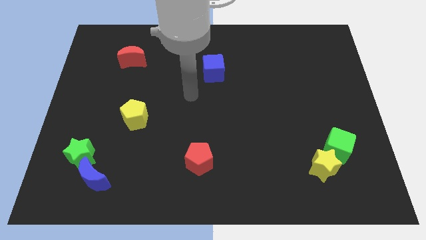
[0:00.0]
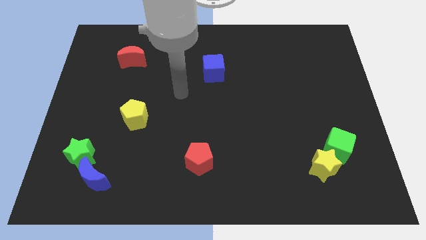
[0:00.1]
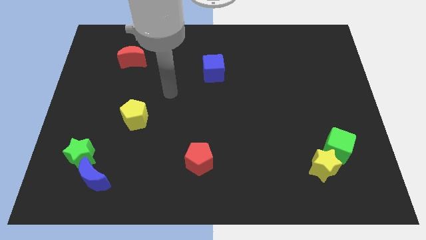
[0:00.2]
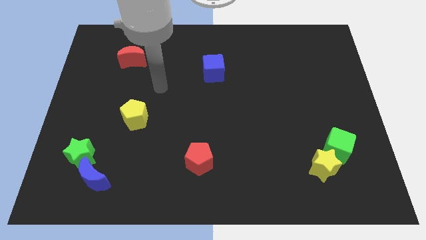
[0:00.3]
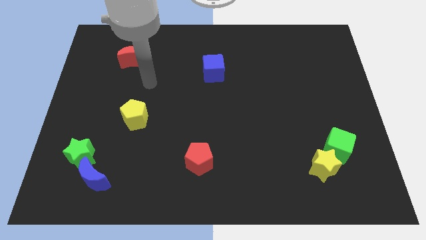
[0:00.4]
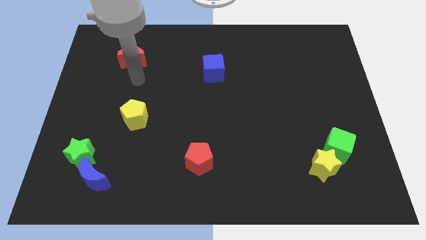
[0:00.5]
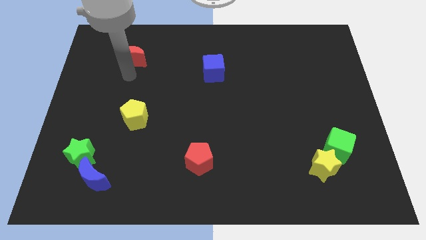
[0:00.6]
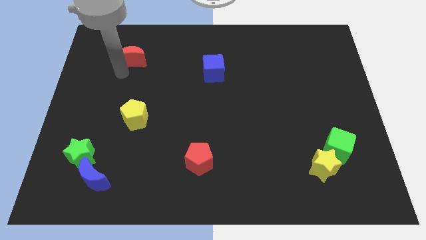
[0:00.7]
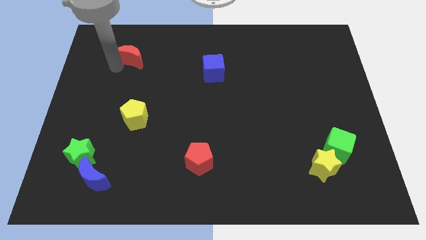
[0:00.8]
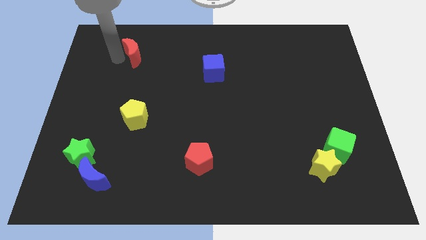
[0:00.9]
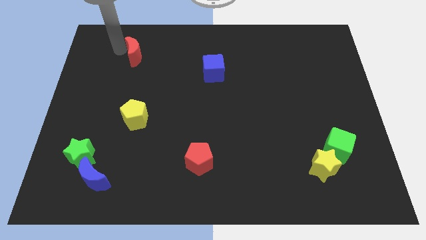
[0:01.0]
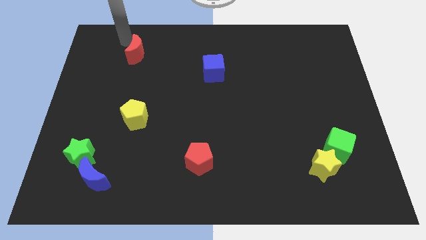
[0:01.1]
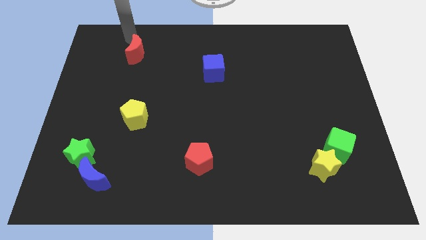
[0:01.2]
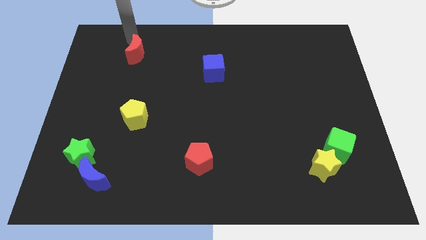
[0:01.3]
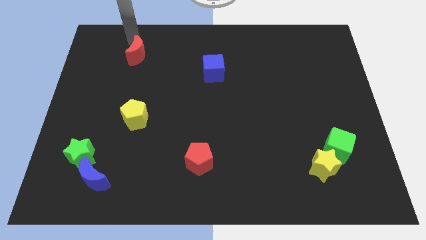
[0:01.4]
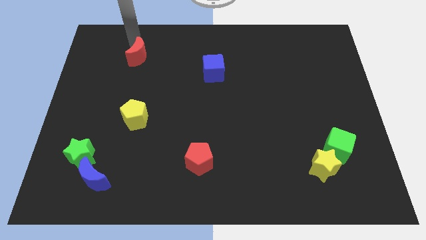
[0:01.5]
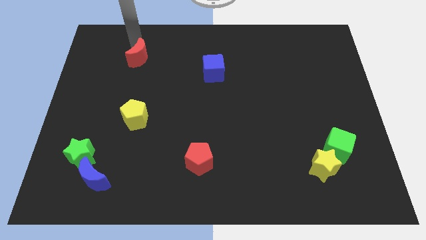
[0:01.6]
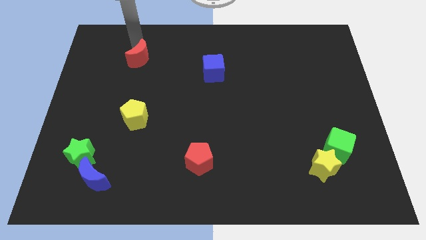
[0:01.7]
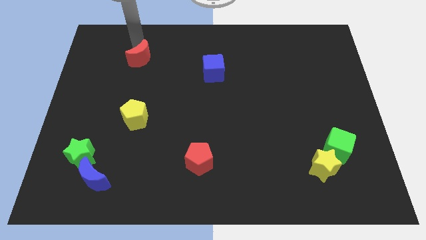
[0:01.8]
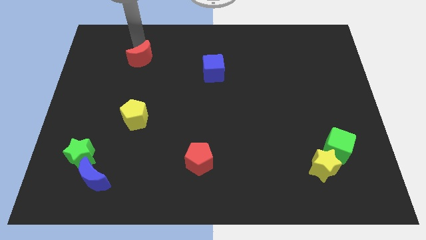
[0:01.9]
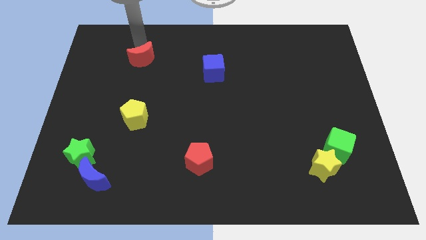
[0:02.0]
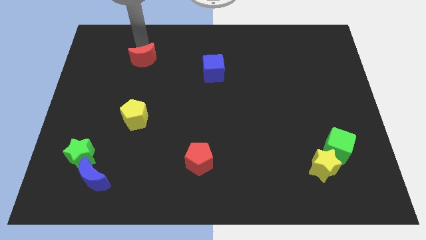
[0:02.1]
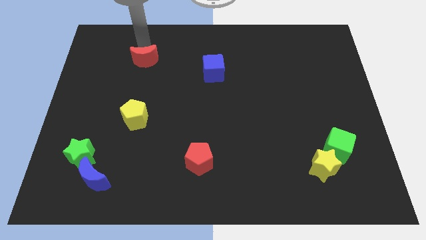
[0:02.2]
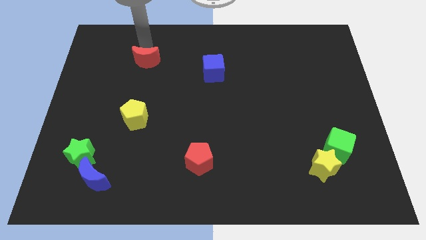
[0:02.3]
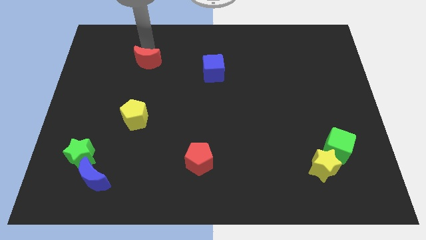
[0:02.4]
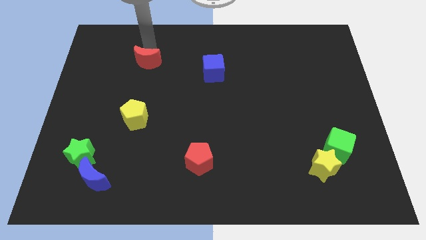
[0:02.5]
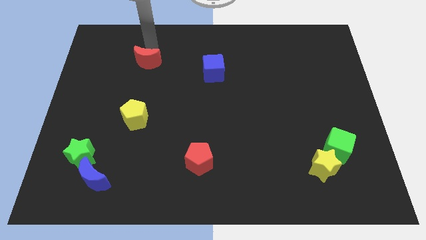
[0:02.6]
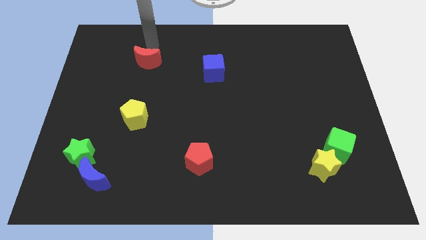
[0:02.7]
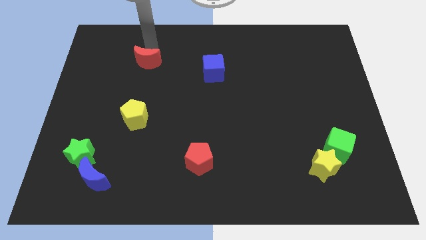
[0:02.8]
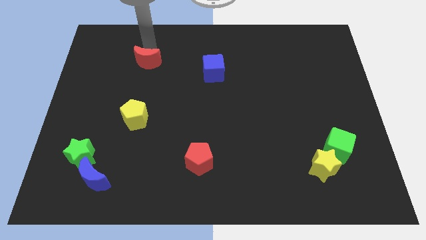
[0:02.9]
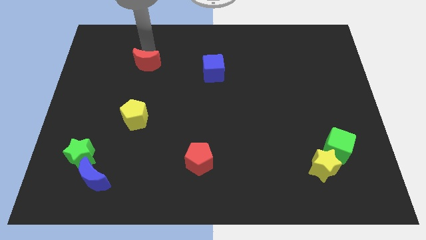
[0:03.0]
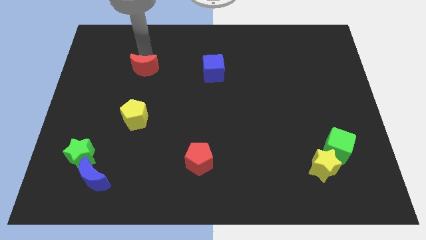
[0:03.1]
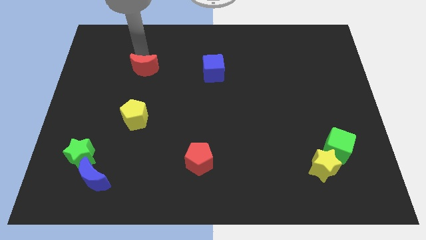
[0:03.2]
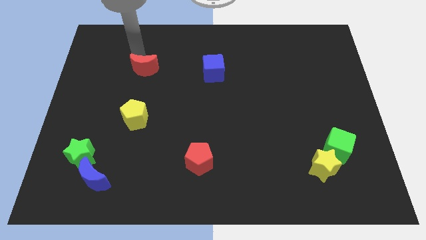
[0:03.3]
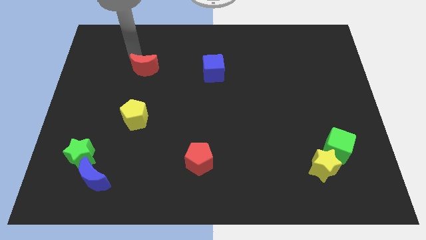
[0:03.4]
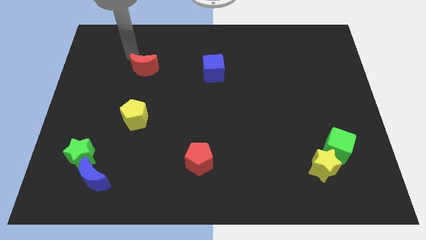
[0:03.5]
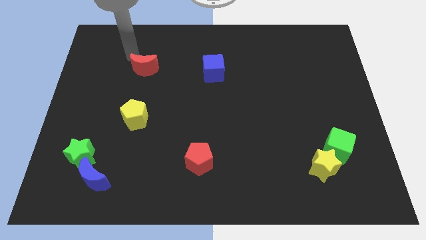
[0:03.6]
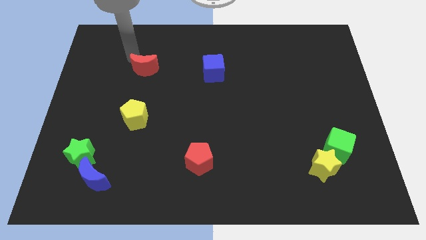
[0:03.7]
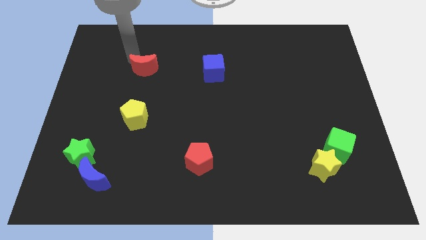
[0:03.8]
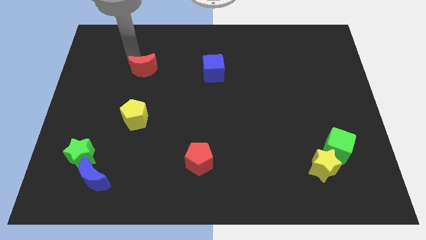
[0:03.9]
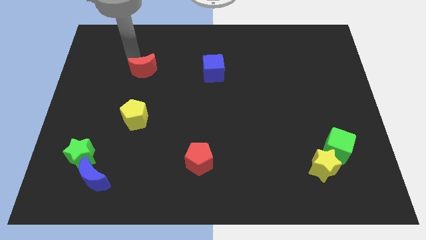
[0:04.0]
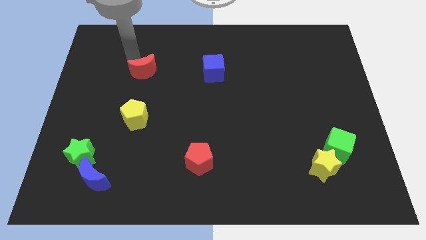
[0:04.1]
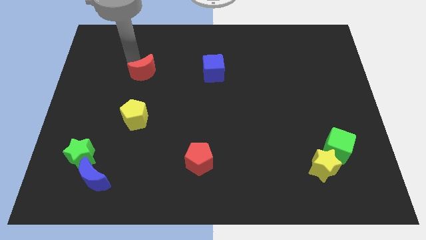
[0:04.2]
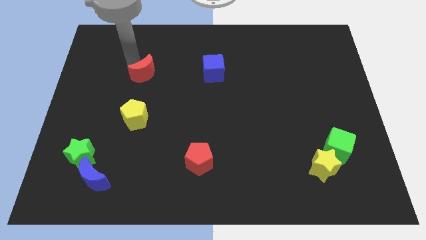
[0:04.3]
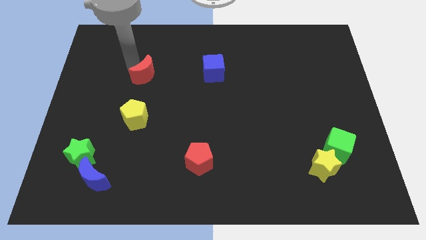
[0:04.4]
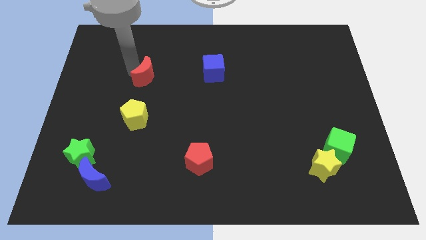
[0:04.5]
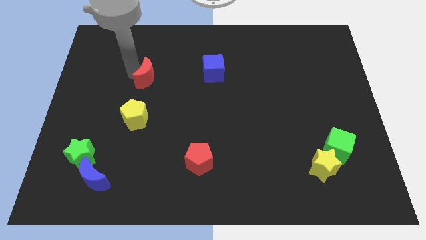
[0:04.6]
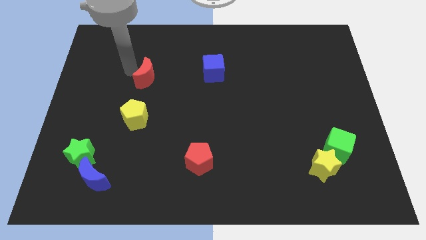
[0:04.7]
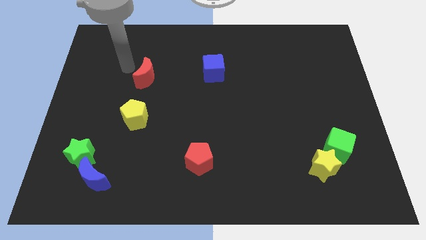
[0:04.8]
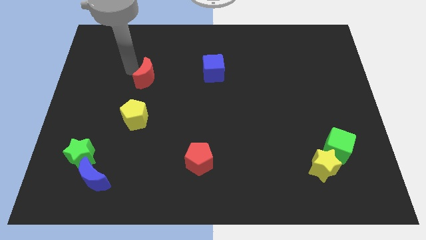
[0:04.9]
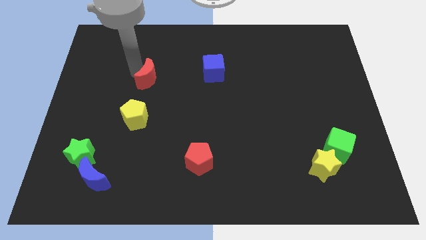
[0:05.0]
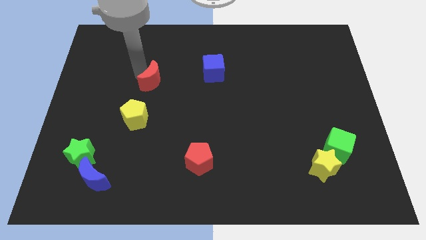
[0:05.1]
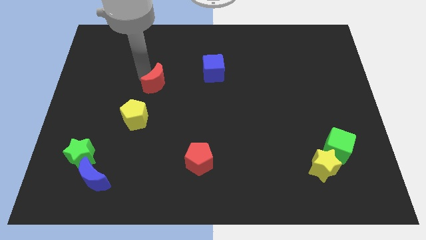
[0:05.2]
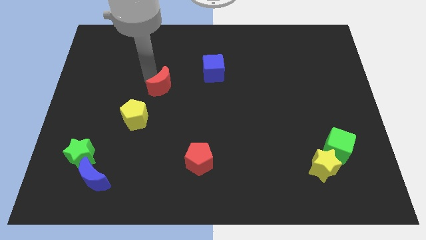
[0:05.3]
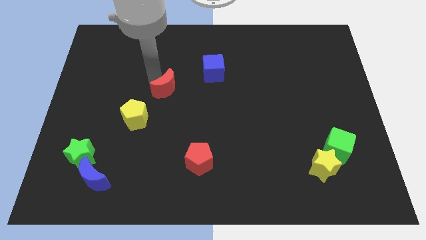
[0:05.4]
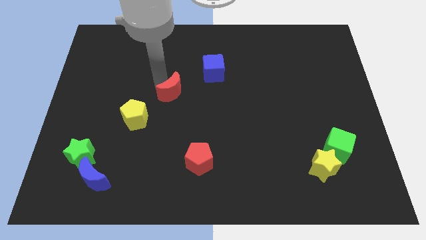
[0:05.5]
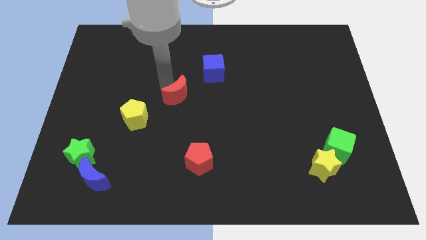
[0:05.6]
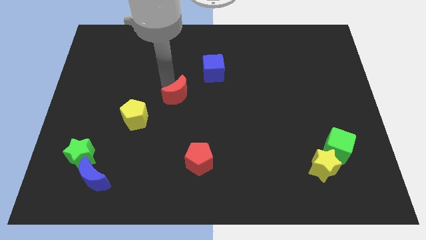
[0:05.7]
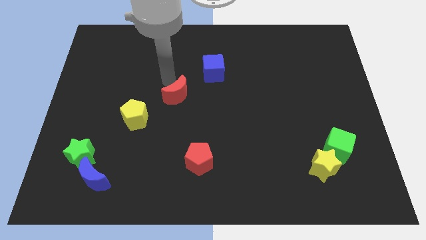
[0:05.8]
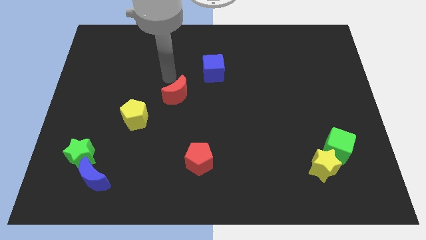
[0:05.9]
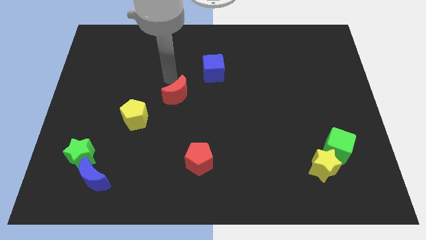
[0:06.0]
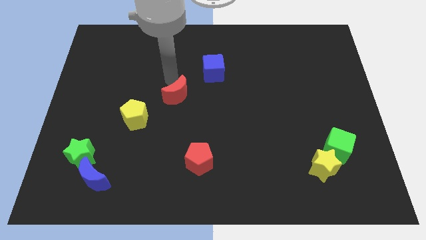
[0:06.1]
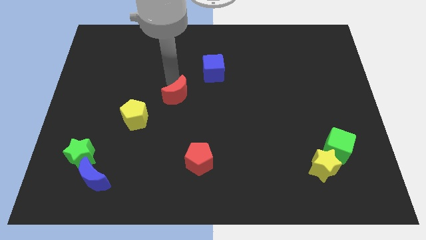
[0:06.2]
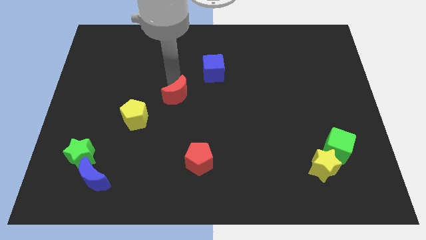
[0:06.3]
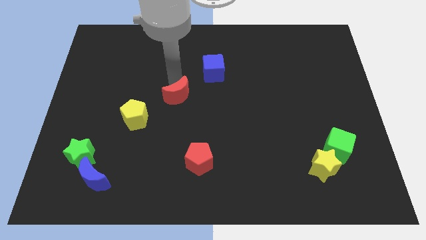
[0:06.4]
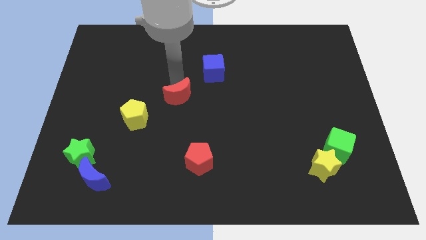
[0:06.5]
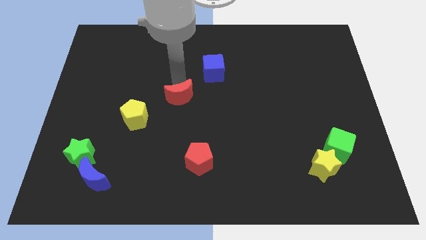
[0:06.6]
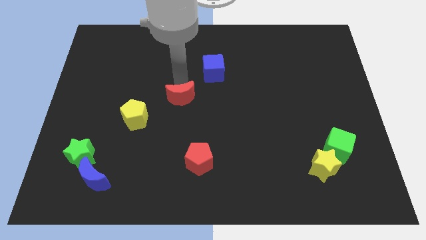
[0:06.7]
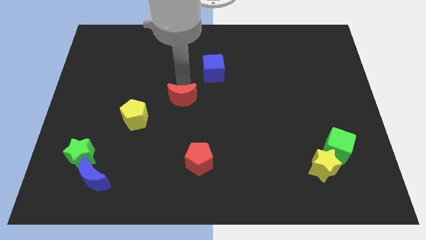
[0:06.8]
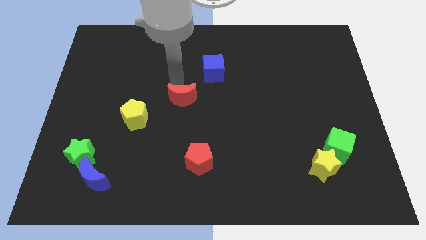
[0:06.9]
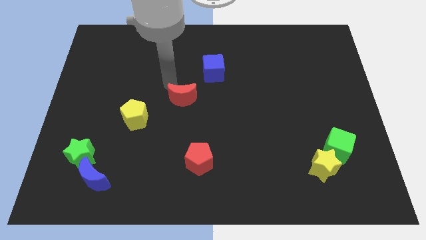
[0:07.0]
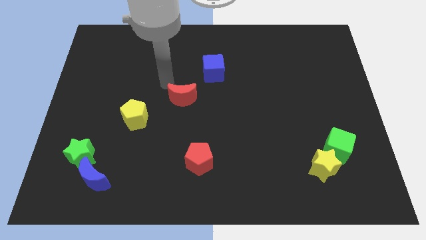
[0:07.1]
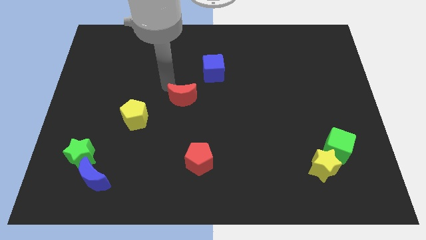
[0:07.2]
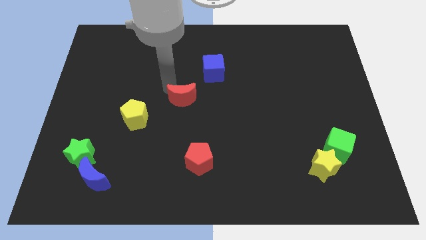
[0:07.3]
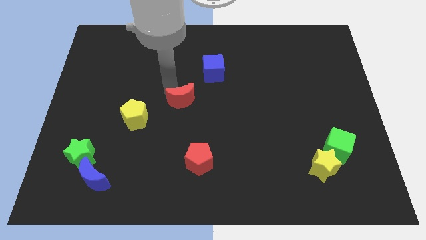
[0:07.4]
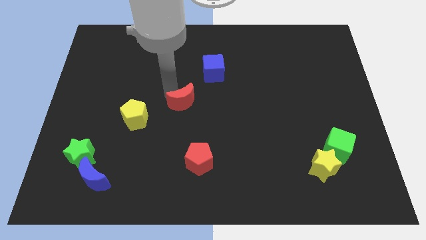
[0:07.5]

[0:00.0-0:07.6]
slide the red moon down and right diagonally

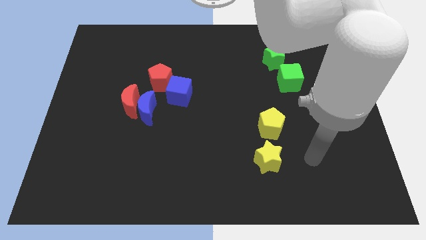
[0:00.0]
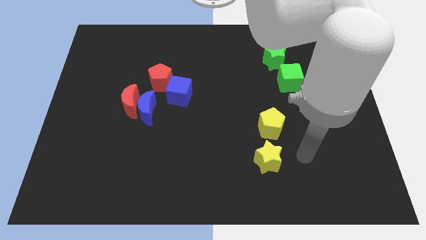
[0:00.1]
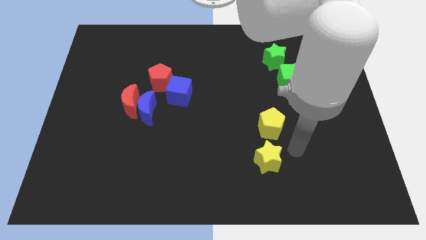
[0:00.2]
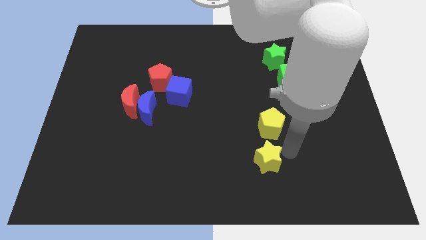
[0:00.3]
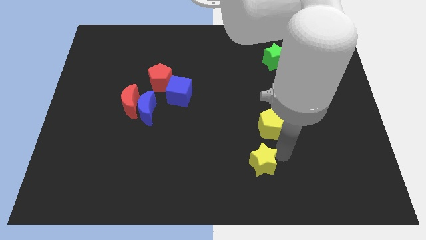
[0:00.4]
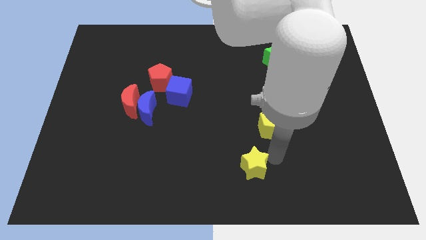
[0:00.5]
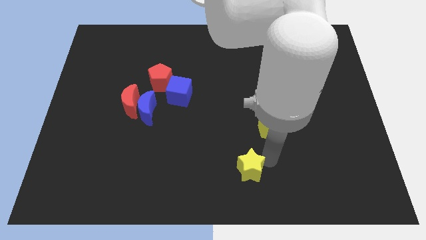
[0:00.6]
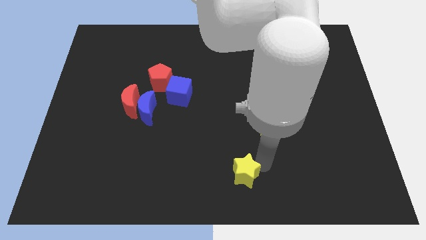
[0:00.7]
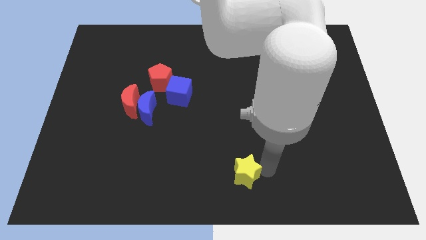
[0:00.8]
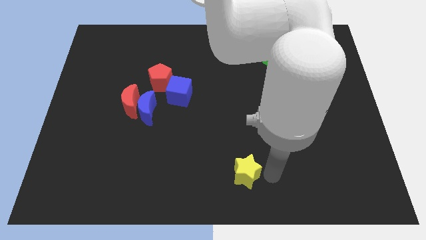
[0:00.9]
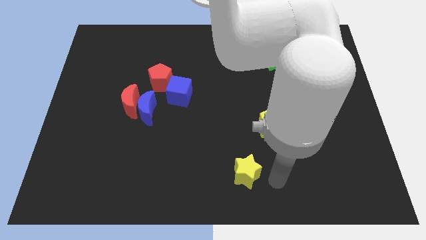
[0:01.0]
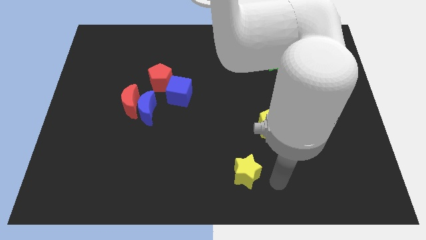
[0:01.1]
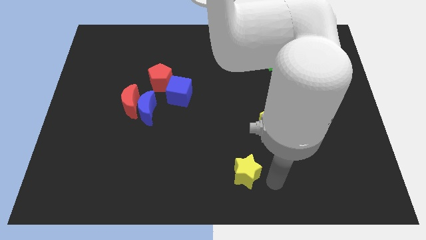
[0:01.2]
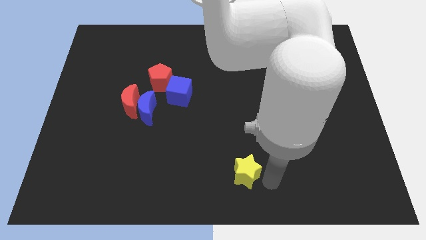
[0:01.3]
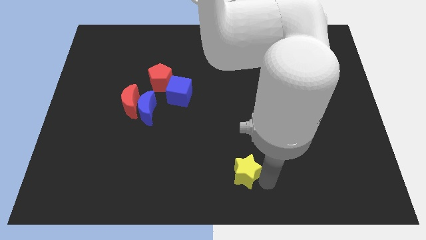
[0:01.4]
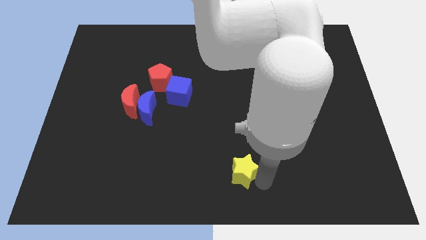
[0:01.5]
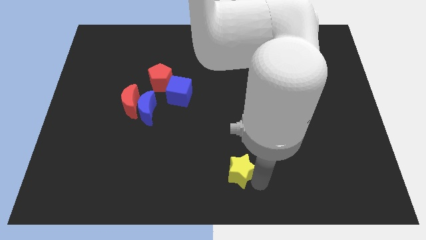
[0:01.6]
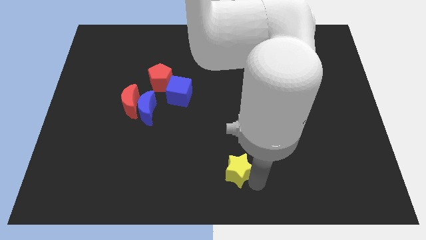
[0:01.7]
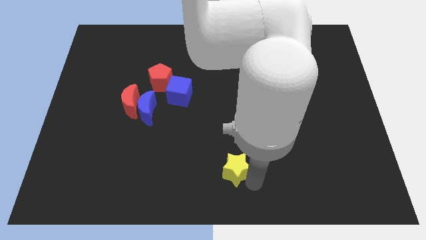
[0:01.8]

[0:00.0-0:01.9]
slightly push the yellow star to the left
